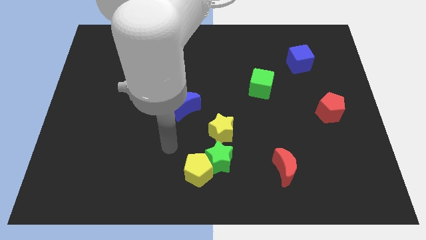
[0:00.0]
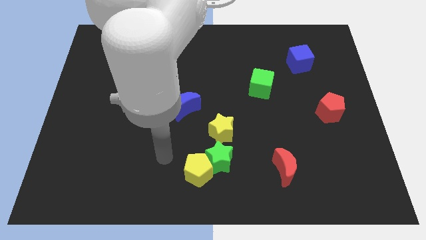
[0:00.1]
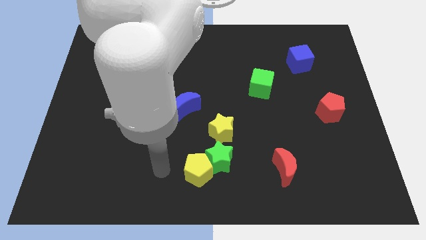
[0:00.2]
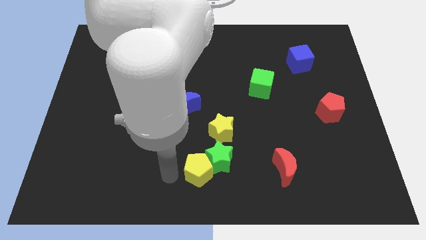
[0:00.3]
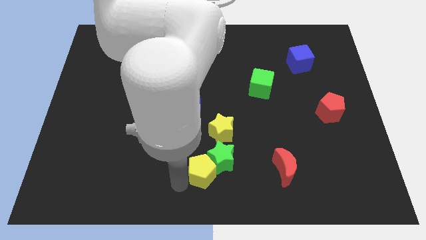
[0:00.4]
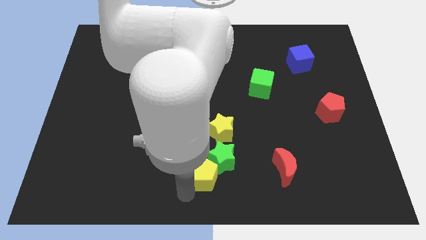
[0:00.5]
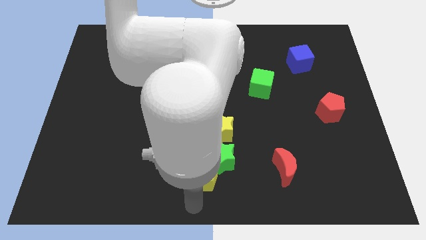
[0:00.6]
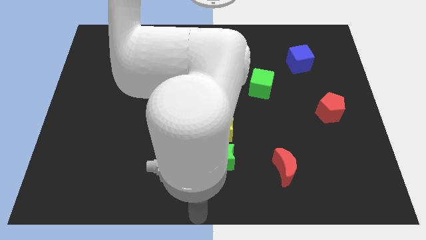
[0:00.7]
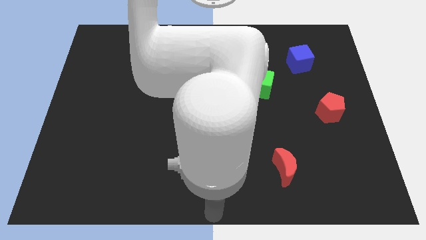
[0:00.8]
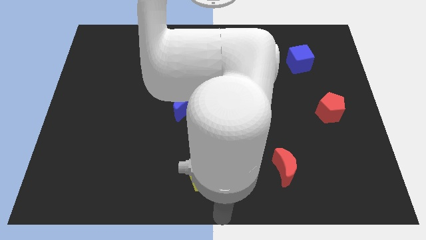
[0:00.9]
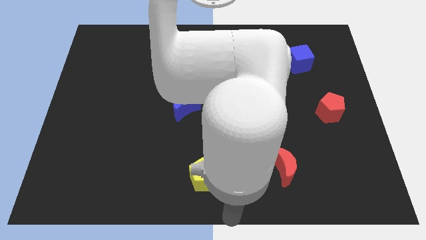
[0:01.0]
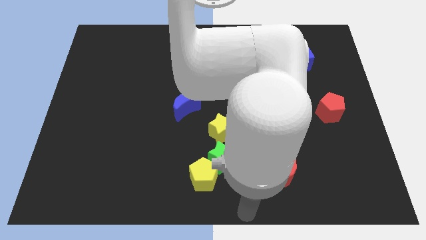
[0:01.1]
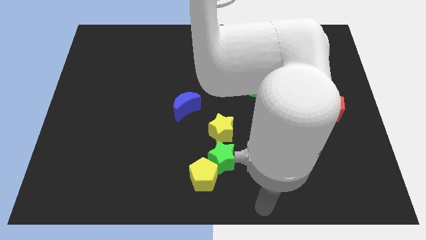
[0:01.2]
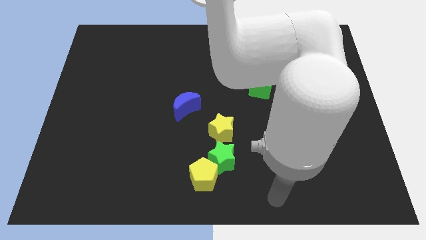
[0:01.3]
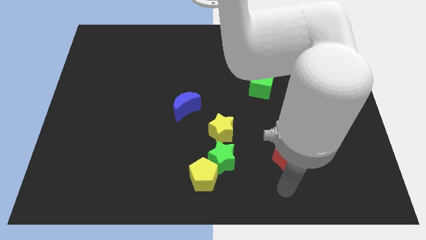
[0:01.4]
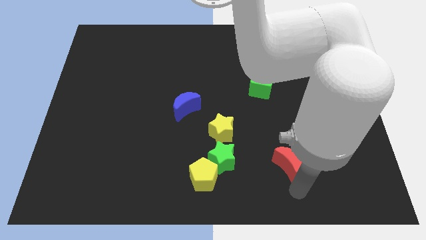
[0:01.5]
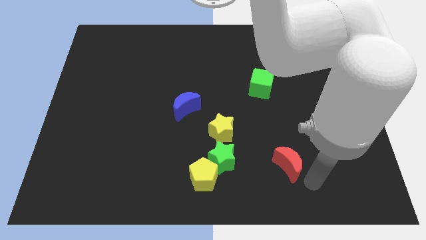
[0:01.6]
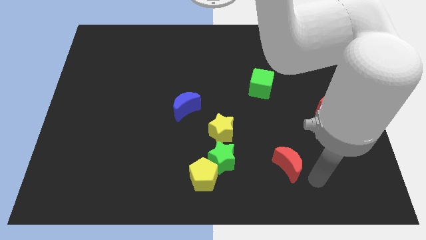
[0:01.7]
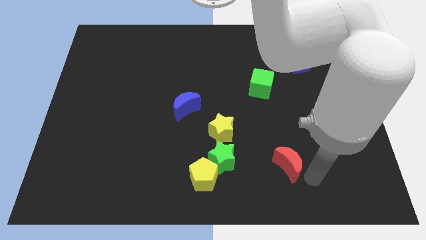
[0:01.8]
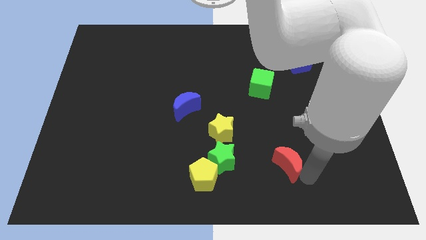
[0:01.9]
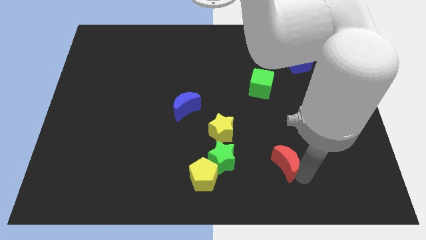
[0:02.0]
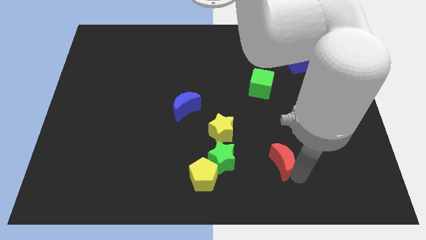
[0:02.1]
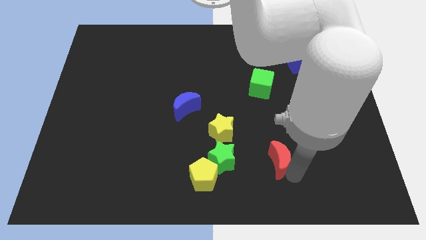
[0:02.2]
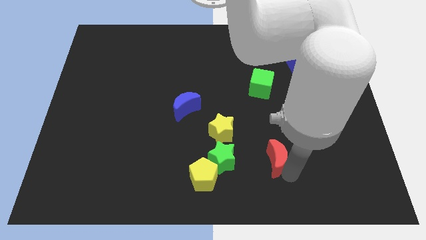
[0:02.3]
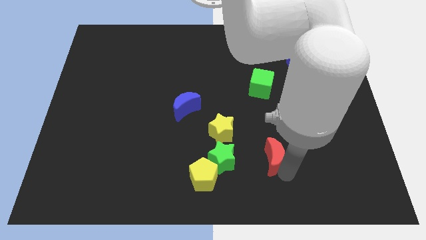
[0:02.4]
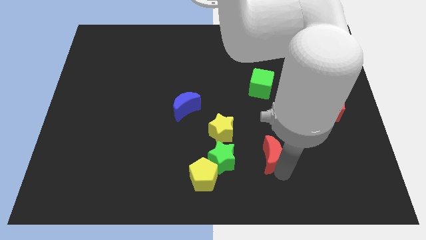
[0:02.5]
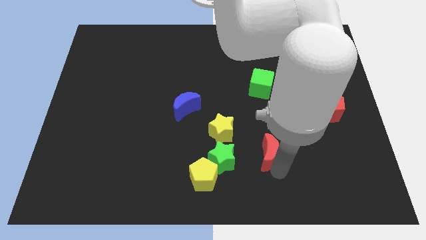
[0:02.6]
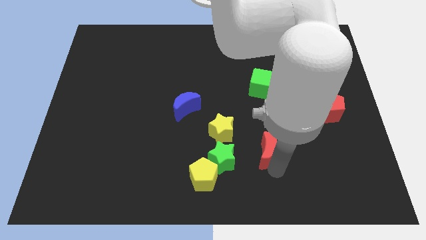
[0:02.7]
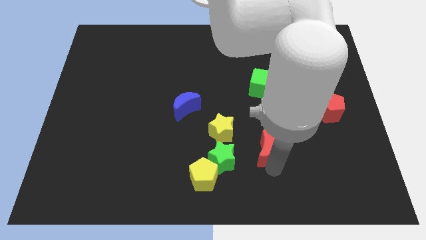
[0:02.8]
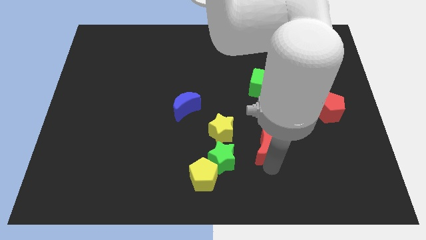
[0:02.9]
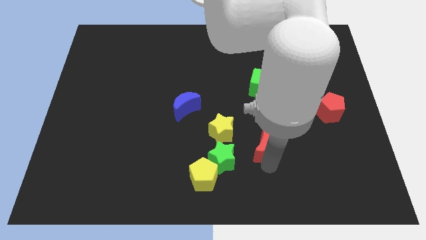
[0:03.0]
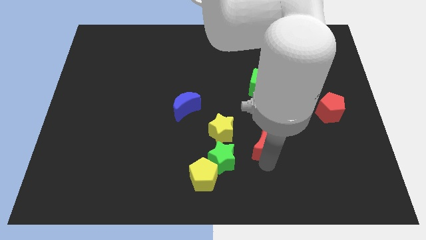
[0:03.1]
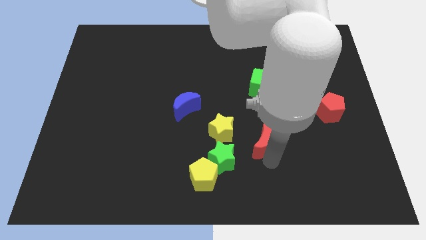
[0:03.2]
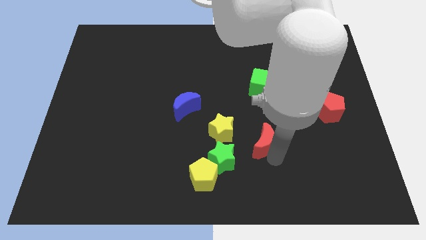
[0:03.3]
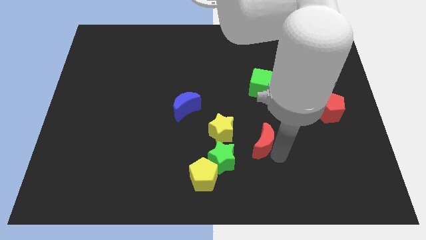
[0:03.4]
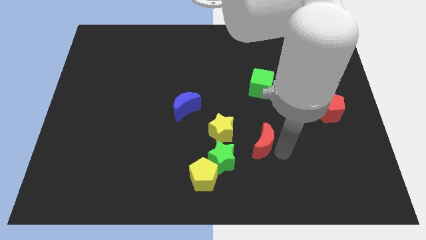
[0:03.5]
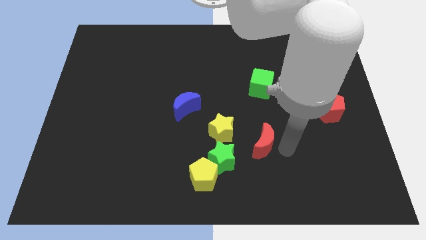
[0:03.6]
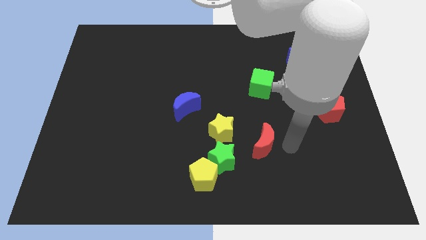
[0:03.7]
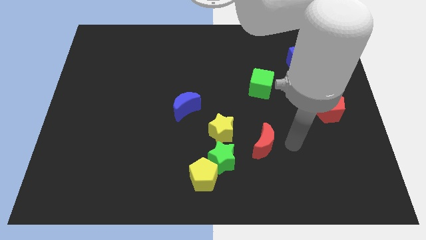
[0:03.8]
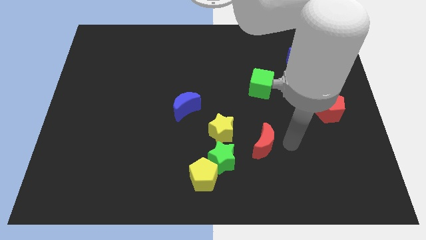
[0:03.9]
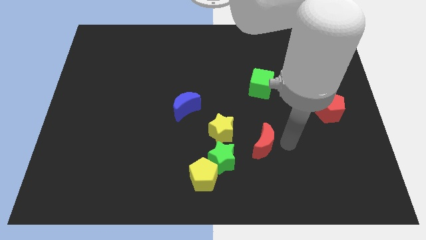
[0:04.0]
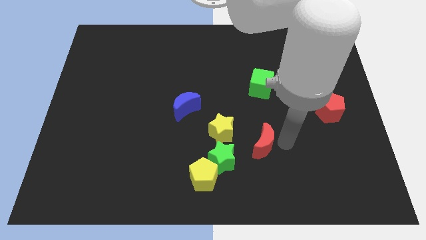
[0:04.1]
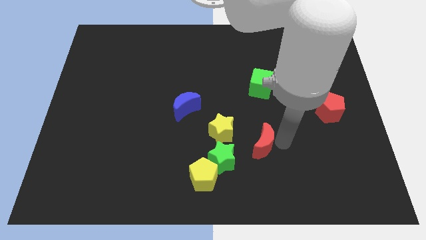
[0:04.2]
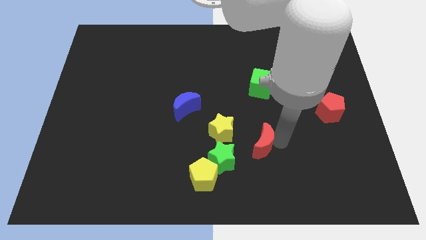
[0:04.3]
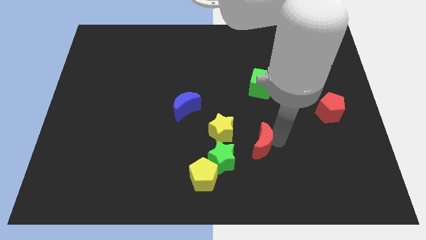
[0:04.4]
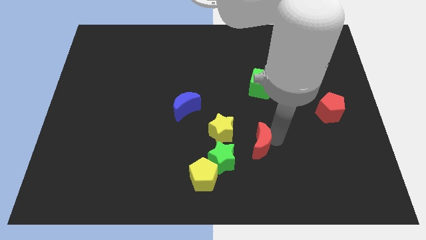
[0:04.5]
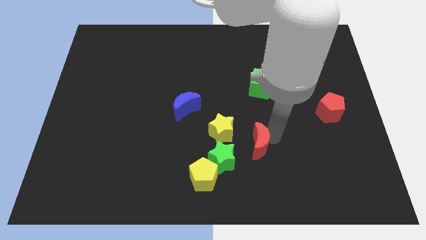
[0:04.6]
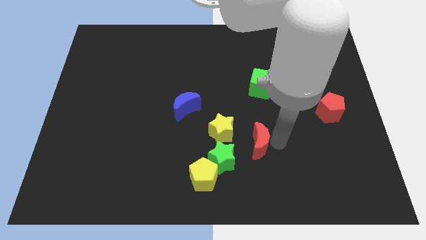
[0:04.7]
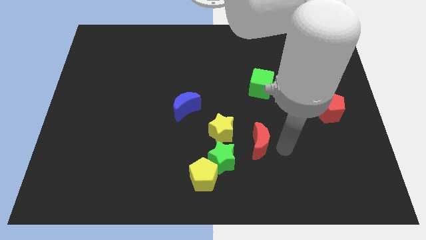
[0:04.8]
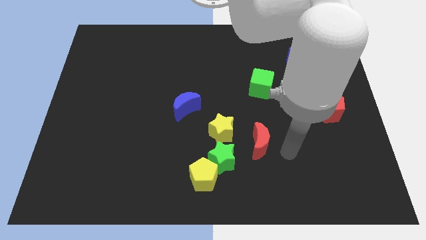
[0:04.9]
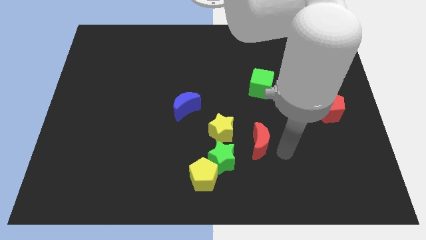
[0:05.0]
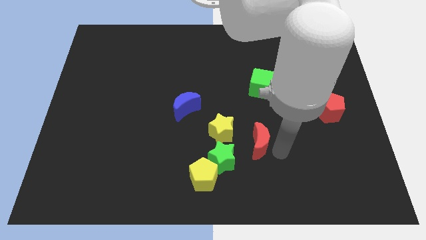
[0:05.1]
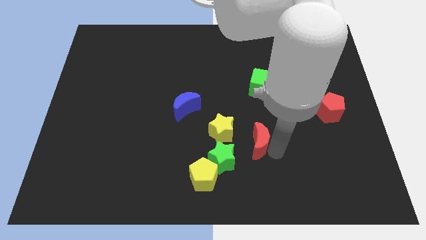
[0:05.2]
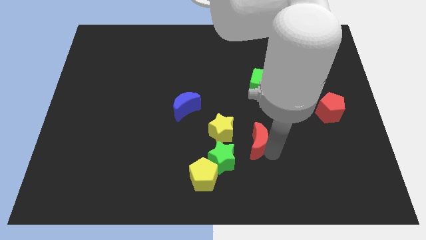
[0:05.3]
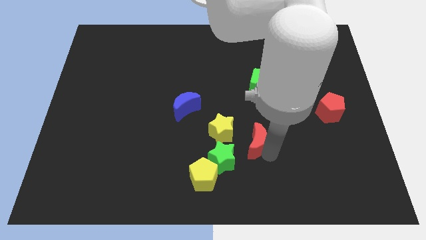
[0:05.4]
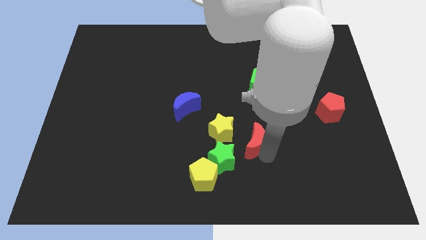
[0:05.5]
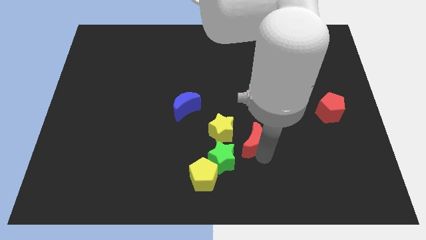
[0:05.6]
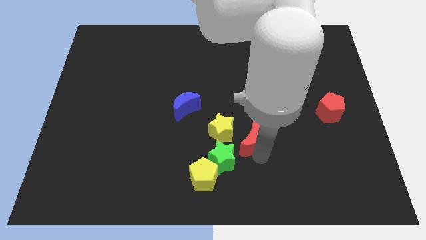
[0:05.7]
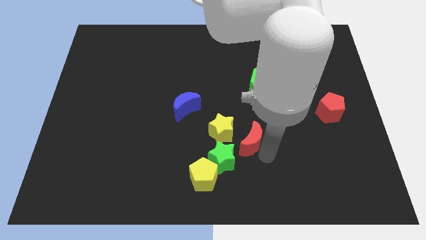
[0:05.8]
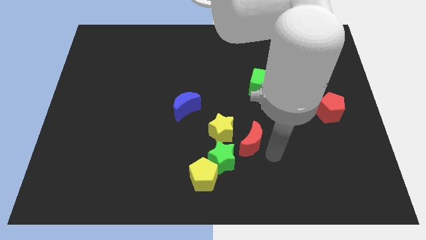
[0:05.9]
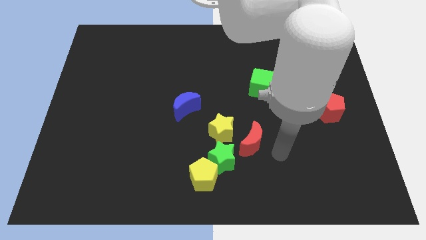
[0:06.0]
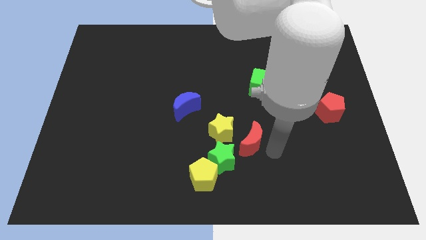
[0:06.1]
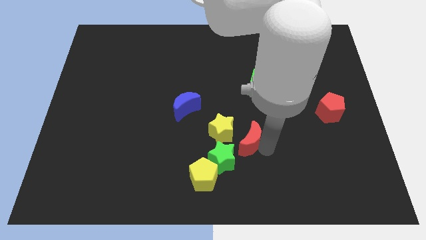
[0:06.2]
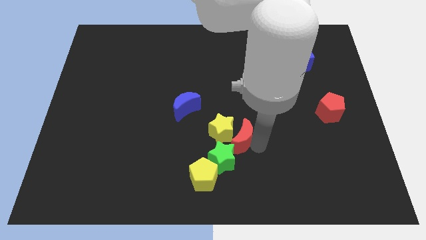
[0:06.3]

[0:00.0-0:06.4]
slide the red moon close to the yellow star

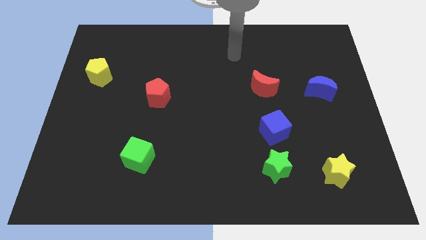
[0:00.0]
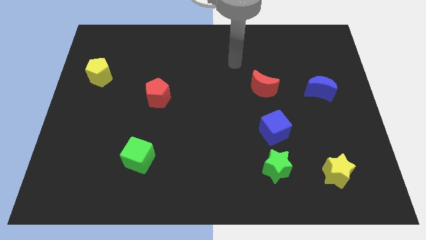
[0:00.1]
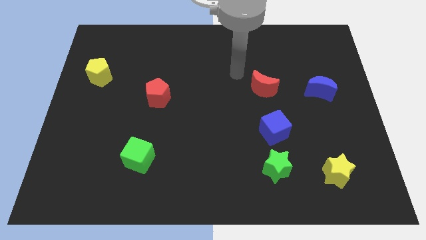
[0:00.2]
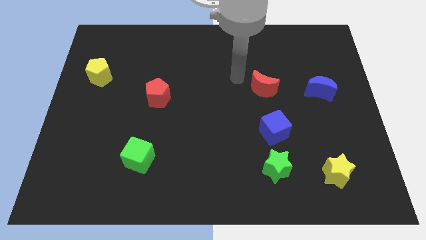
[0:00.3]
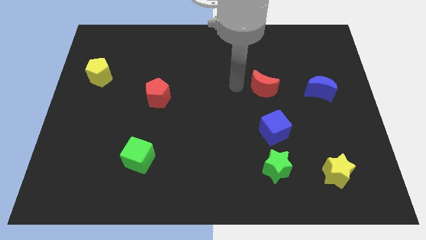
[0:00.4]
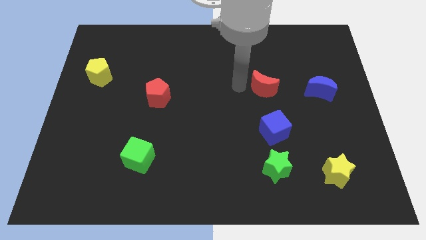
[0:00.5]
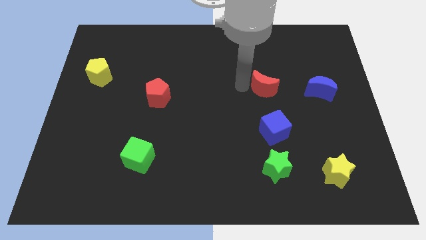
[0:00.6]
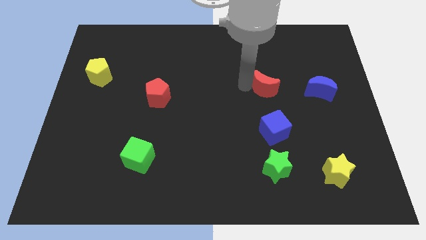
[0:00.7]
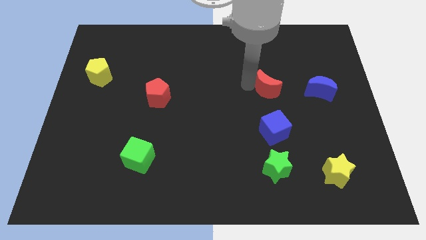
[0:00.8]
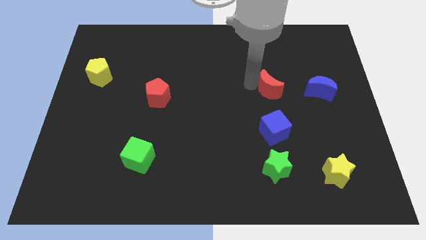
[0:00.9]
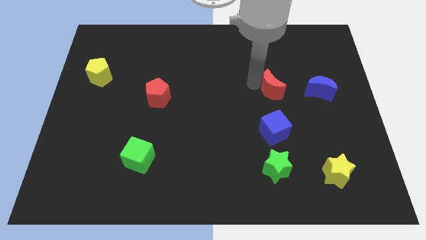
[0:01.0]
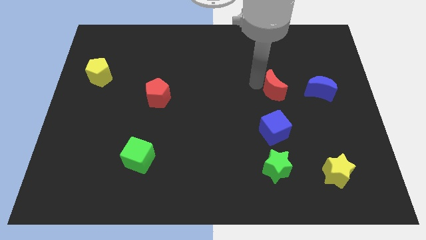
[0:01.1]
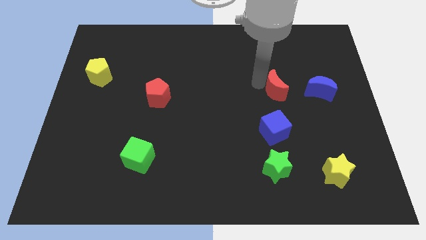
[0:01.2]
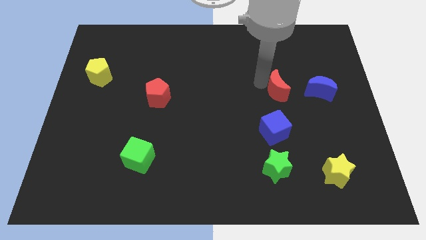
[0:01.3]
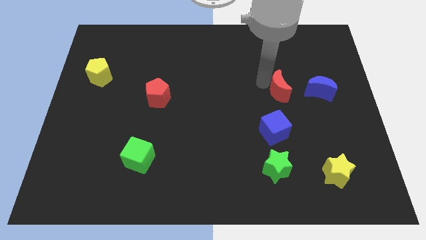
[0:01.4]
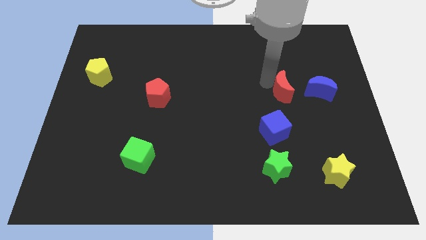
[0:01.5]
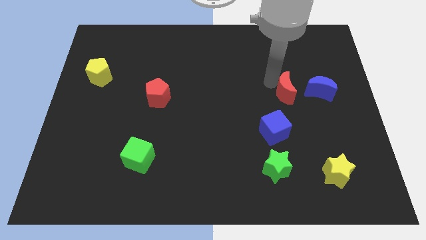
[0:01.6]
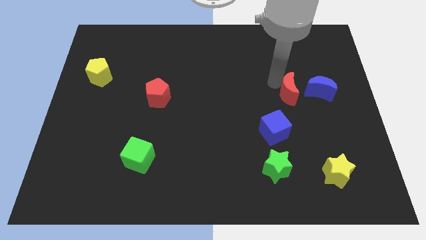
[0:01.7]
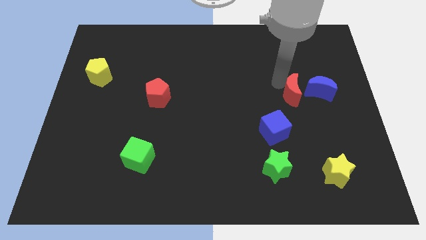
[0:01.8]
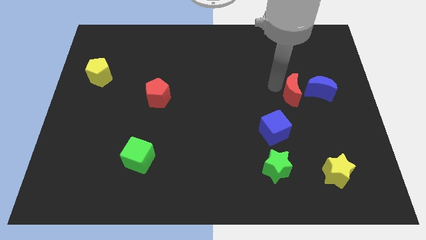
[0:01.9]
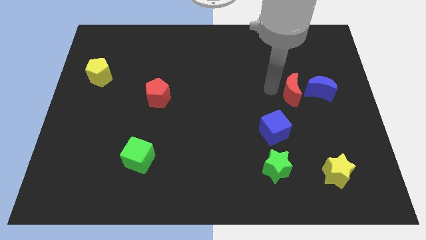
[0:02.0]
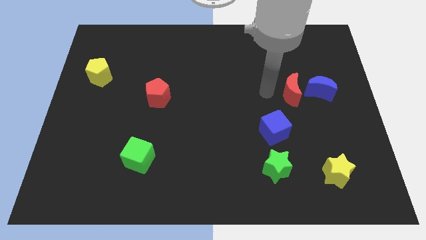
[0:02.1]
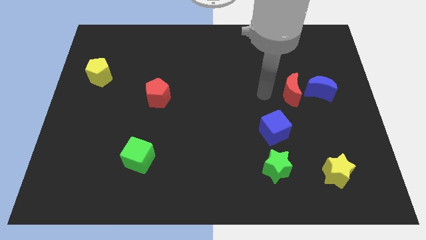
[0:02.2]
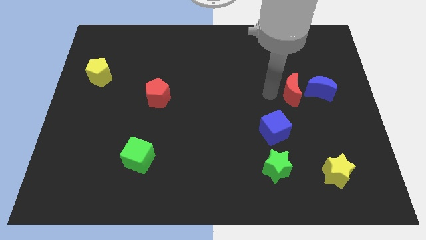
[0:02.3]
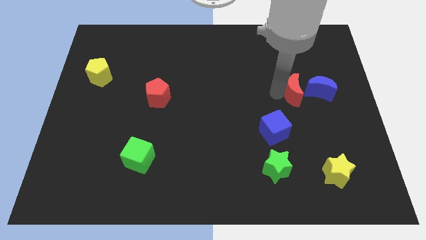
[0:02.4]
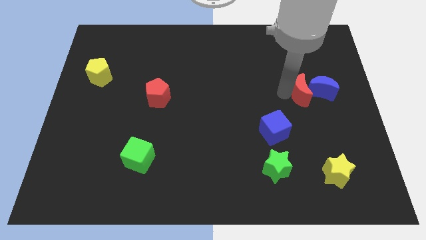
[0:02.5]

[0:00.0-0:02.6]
move the red moon close to the blue moon
